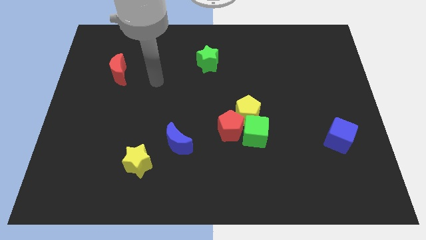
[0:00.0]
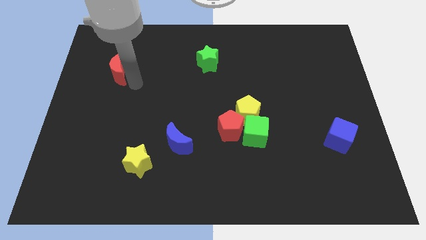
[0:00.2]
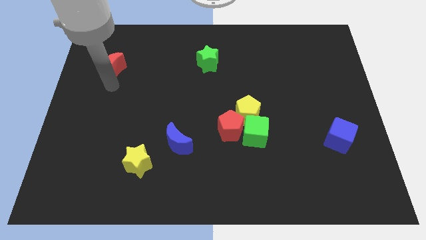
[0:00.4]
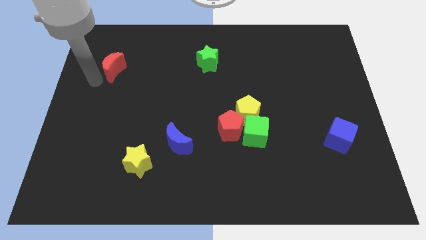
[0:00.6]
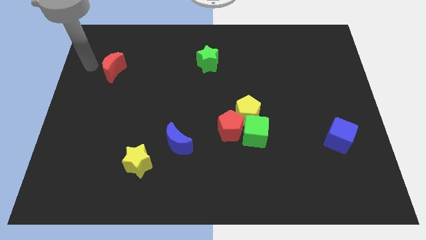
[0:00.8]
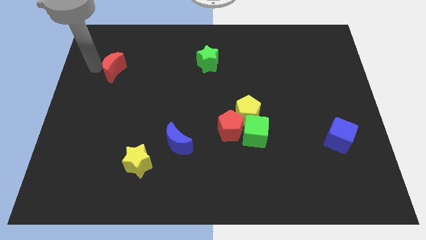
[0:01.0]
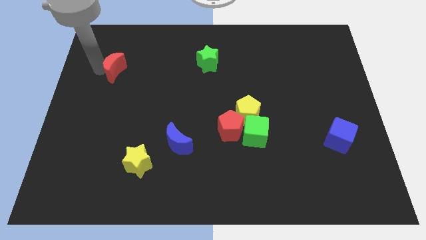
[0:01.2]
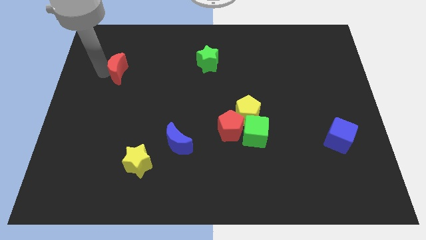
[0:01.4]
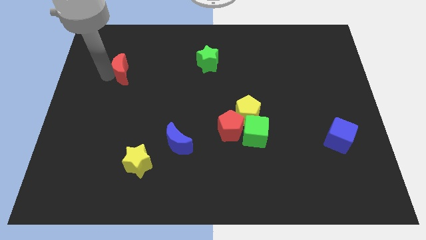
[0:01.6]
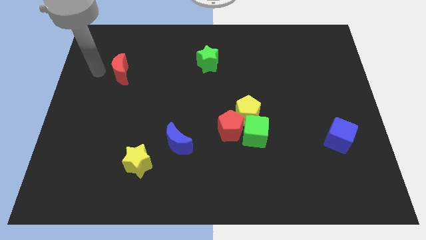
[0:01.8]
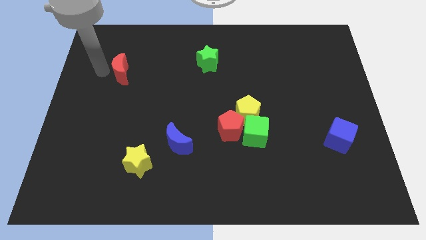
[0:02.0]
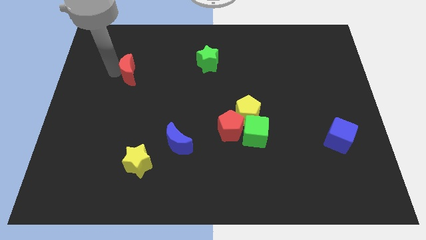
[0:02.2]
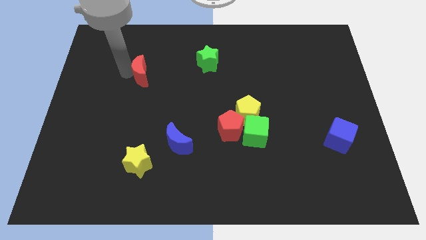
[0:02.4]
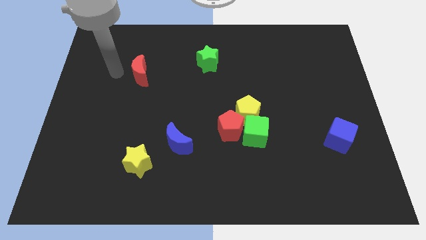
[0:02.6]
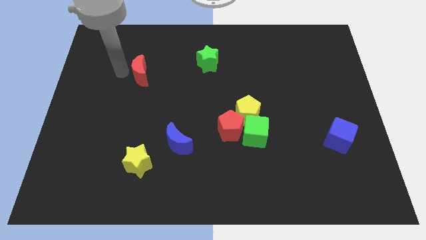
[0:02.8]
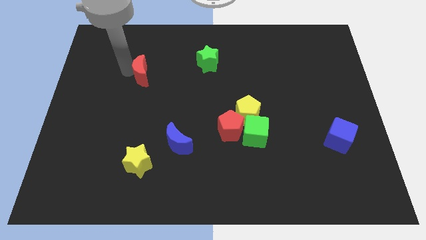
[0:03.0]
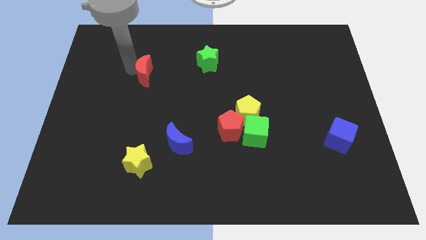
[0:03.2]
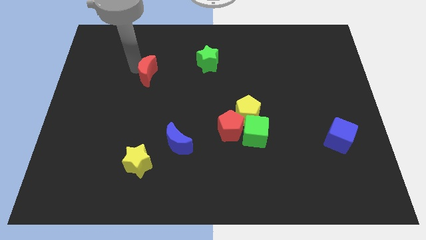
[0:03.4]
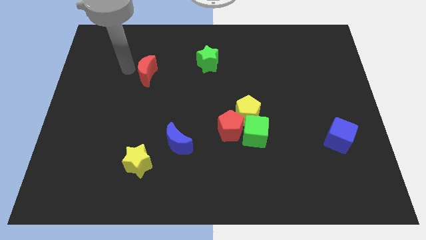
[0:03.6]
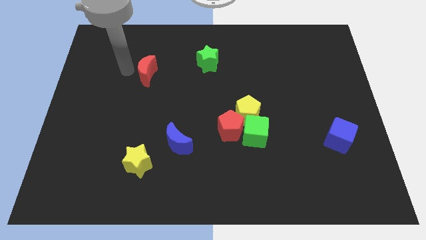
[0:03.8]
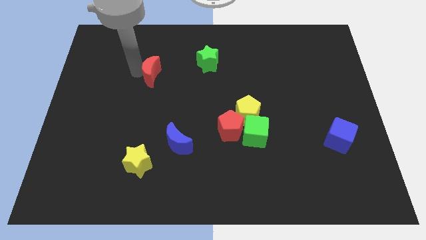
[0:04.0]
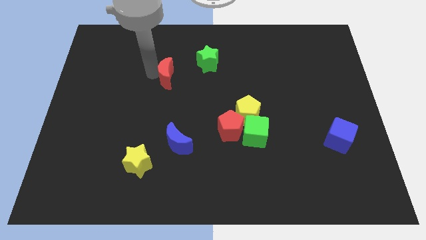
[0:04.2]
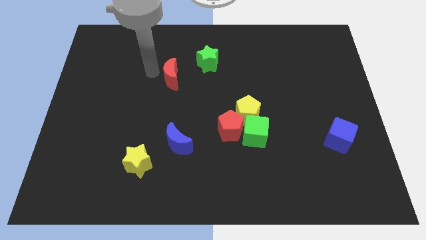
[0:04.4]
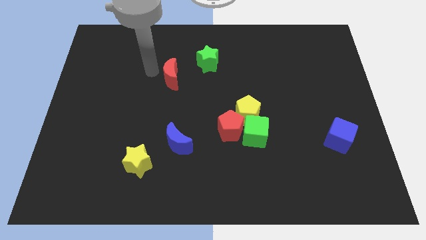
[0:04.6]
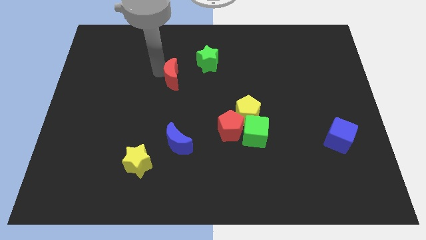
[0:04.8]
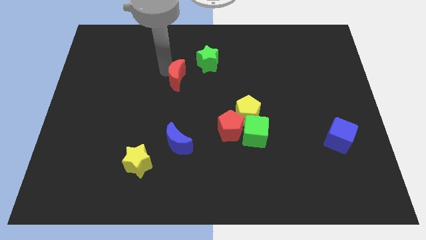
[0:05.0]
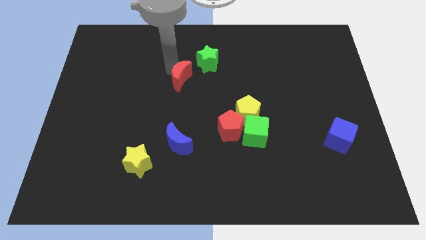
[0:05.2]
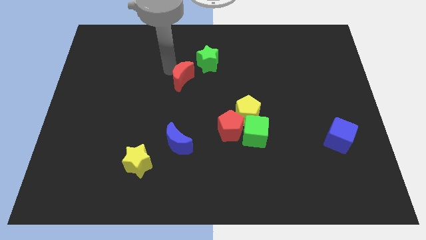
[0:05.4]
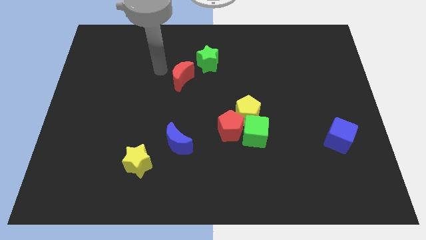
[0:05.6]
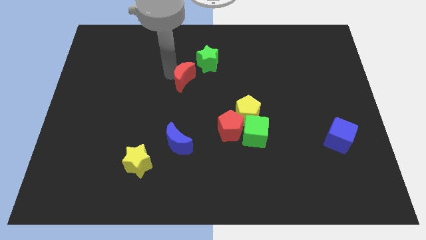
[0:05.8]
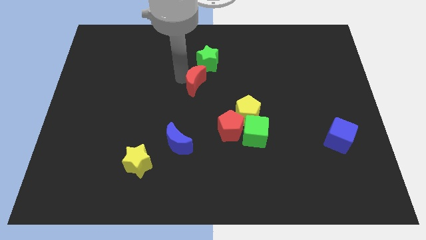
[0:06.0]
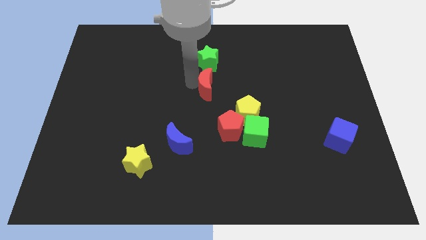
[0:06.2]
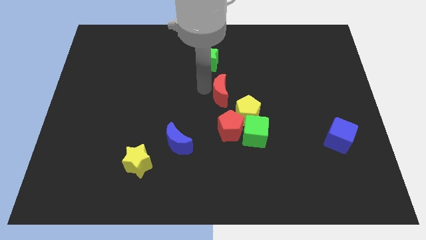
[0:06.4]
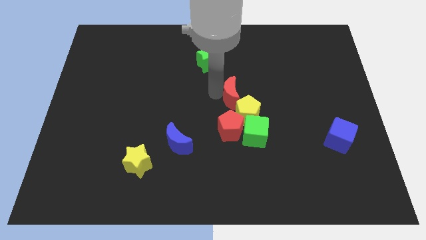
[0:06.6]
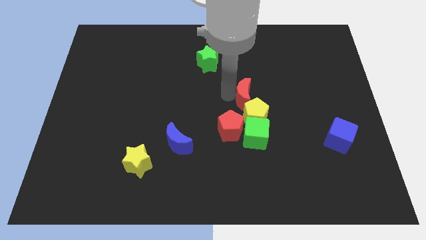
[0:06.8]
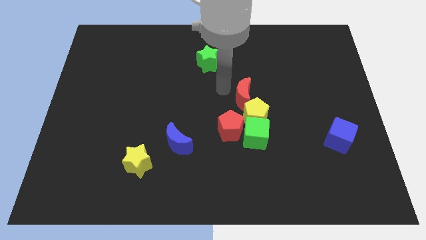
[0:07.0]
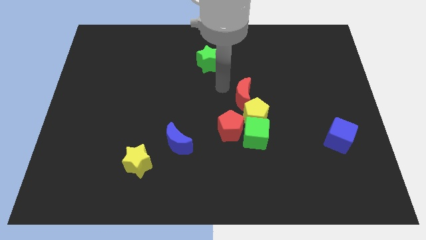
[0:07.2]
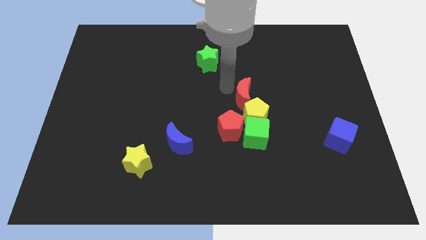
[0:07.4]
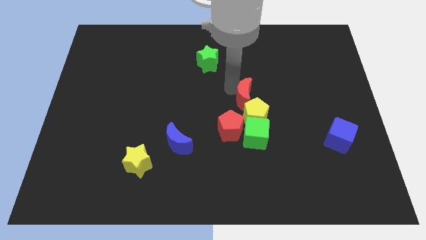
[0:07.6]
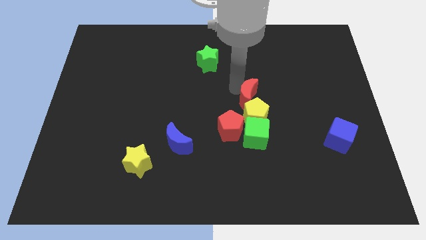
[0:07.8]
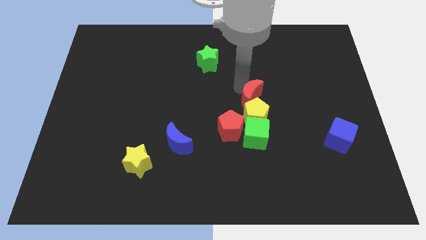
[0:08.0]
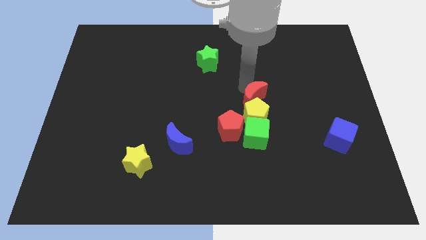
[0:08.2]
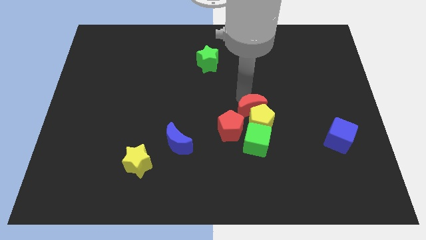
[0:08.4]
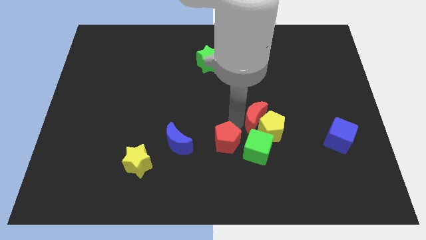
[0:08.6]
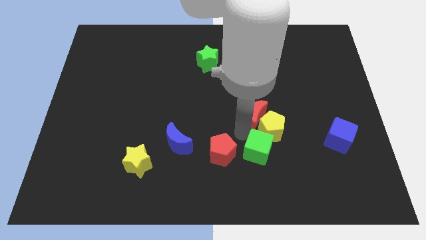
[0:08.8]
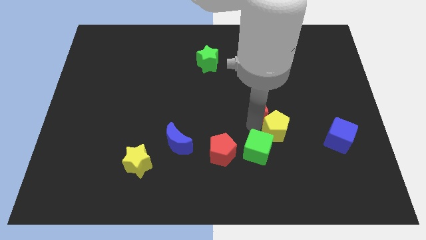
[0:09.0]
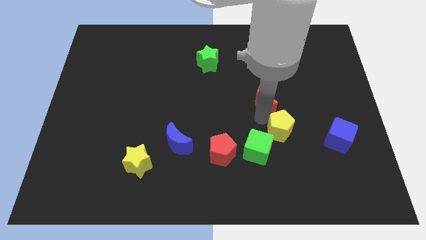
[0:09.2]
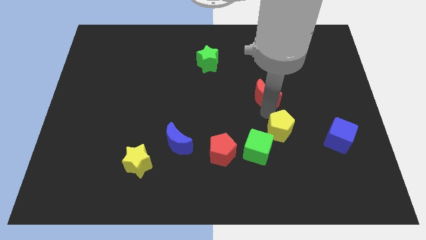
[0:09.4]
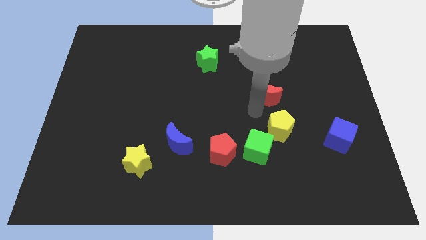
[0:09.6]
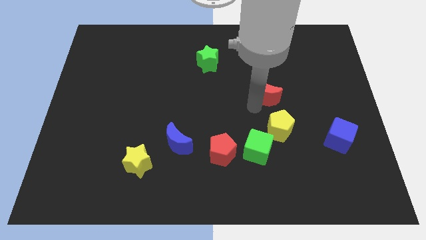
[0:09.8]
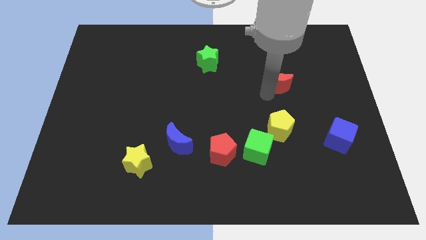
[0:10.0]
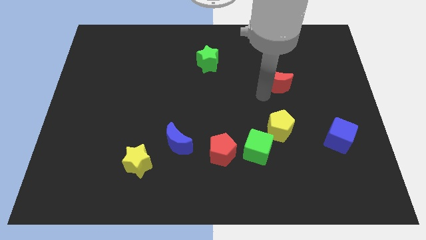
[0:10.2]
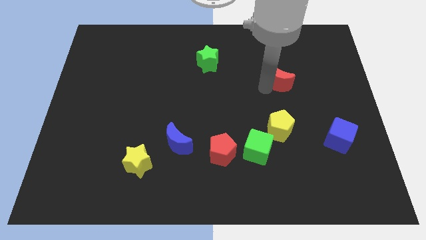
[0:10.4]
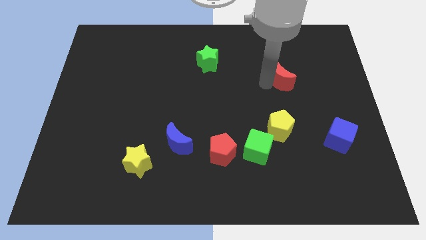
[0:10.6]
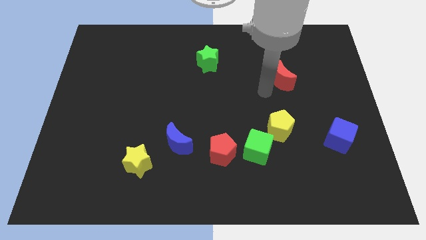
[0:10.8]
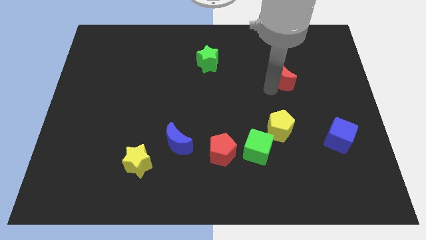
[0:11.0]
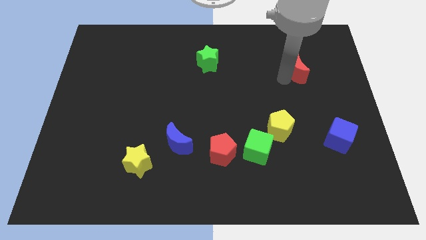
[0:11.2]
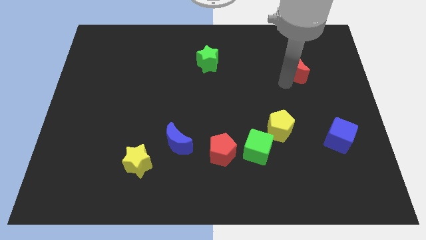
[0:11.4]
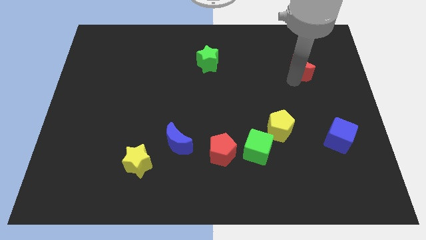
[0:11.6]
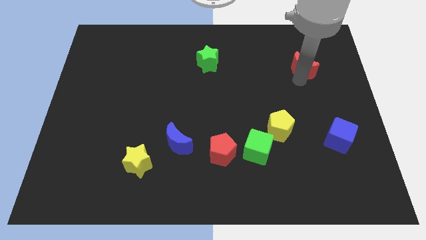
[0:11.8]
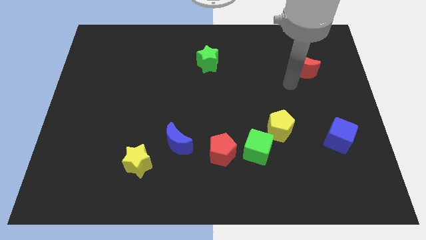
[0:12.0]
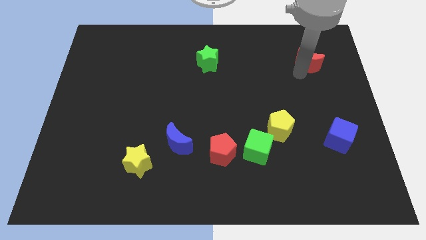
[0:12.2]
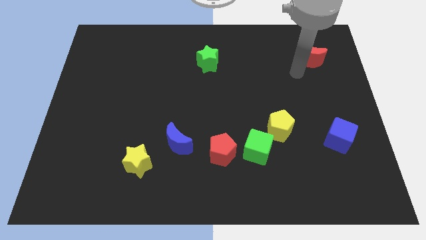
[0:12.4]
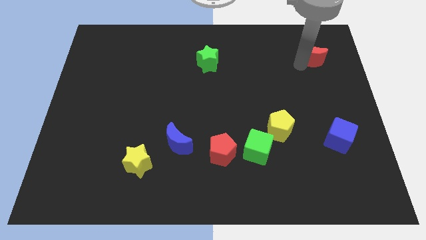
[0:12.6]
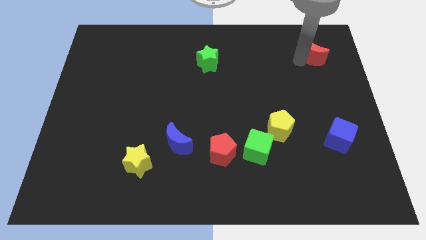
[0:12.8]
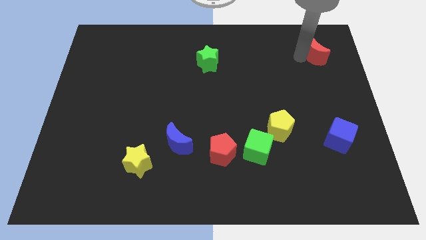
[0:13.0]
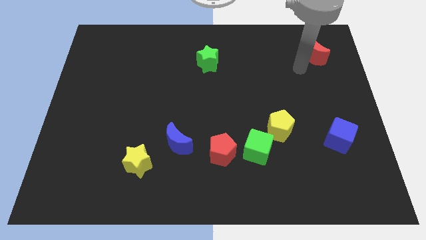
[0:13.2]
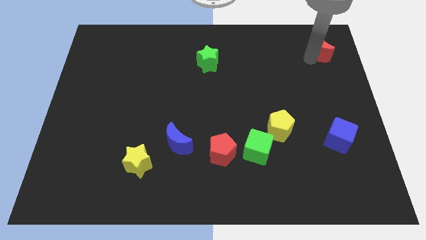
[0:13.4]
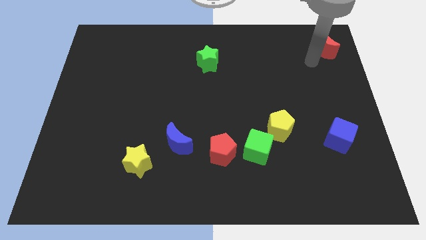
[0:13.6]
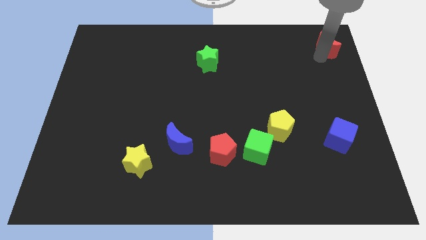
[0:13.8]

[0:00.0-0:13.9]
move the red moon to the top right of the board

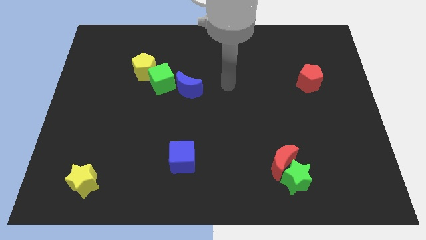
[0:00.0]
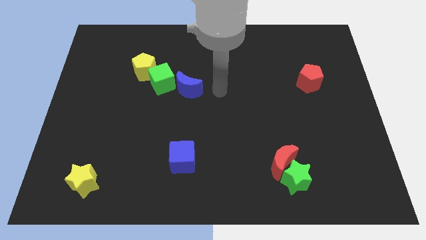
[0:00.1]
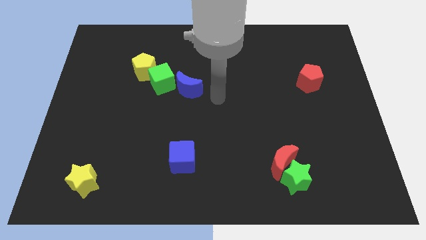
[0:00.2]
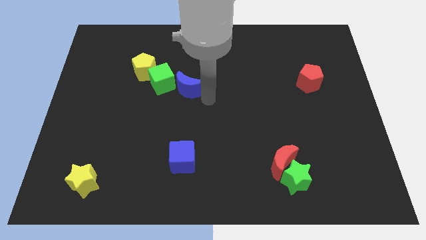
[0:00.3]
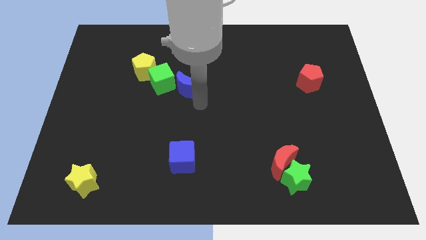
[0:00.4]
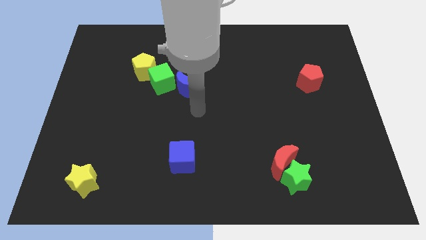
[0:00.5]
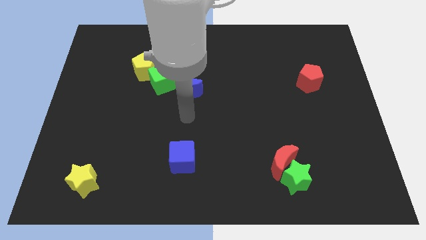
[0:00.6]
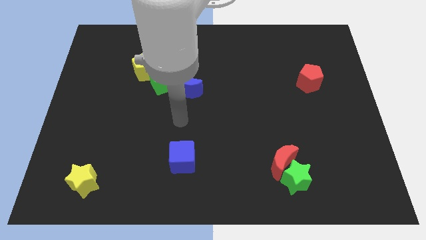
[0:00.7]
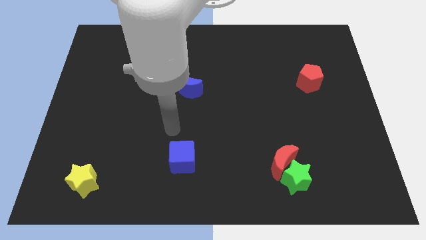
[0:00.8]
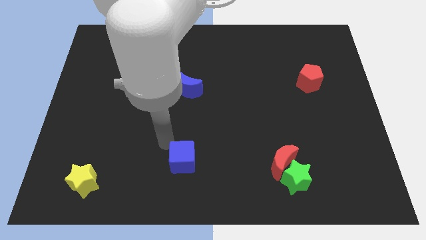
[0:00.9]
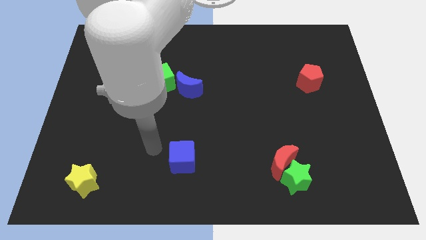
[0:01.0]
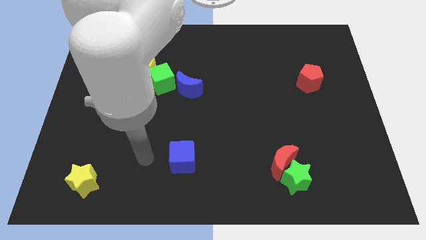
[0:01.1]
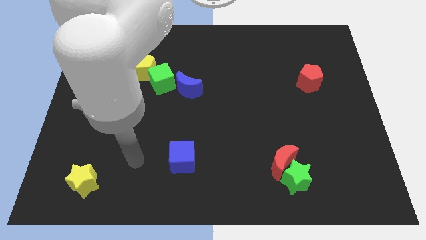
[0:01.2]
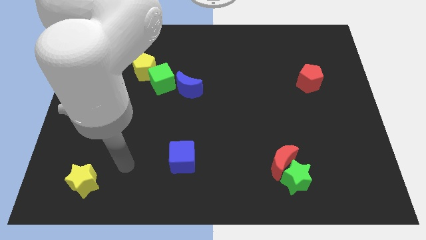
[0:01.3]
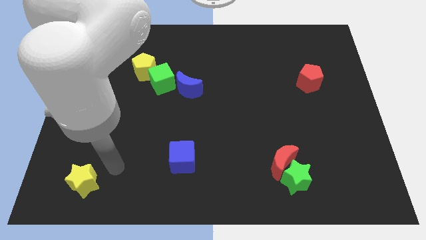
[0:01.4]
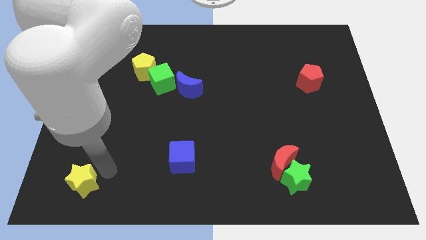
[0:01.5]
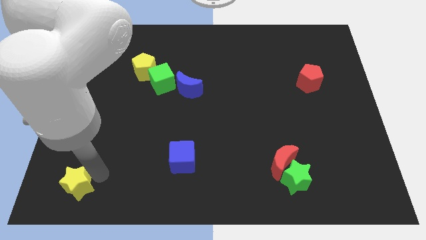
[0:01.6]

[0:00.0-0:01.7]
put the yellow star to the lower left corner
